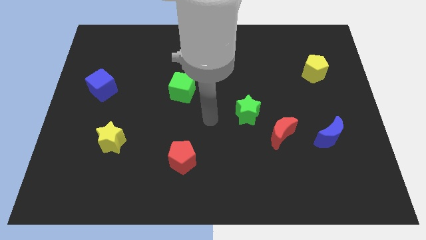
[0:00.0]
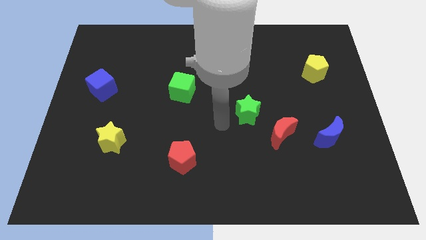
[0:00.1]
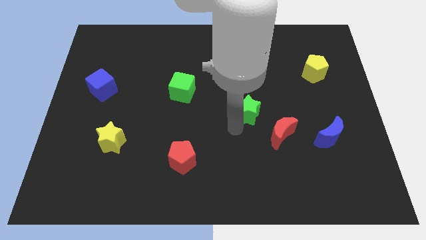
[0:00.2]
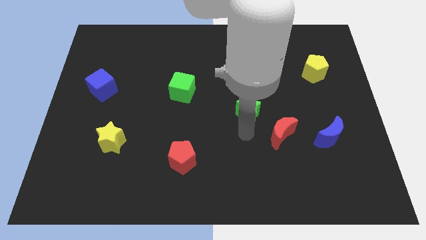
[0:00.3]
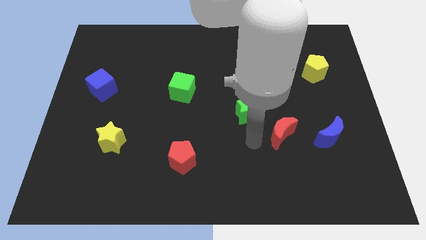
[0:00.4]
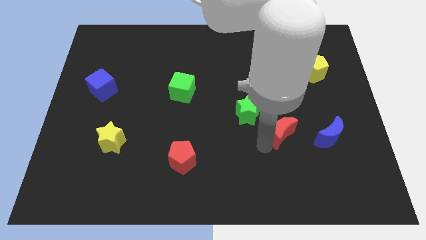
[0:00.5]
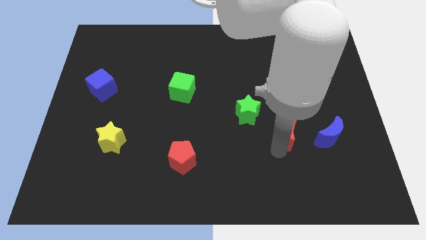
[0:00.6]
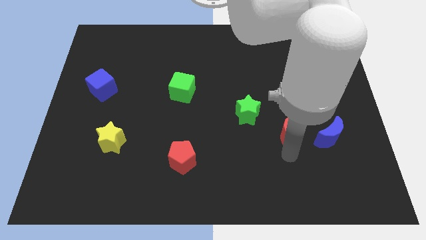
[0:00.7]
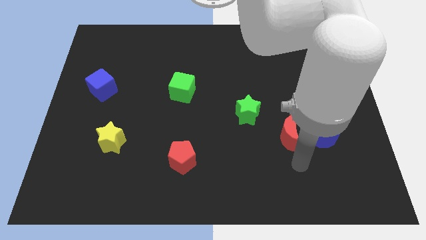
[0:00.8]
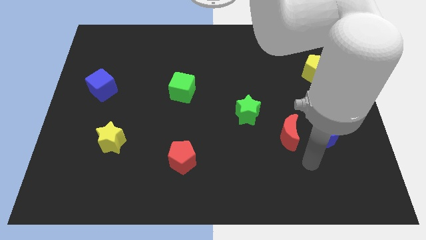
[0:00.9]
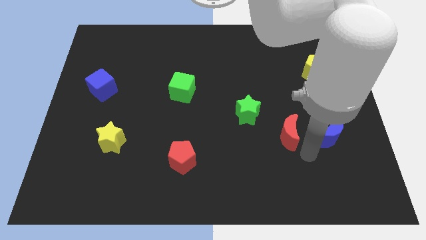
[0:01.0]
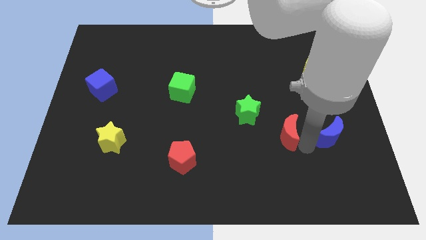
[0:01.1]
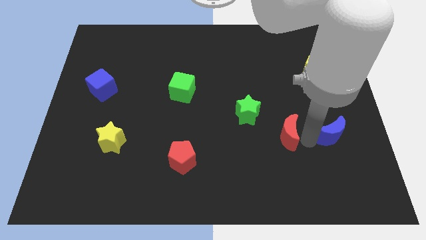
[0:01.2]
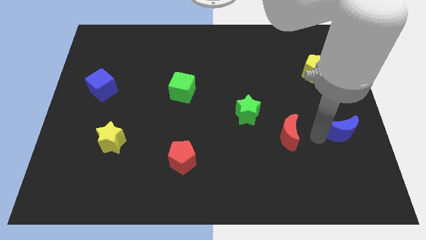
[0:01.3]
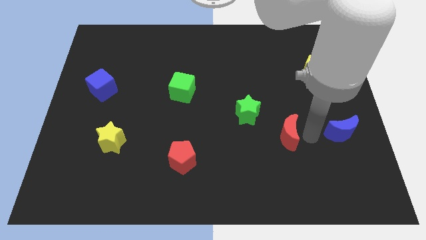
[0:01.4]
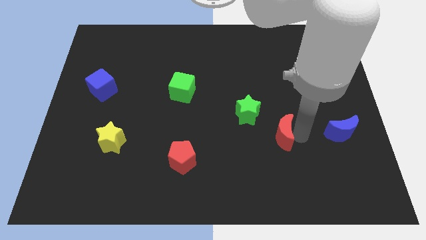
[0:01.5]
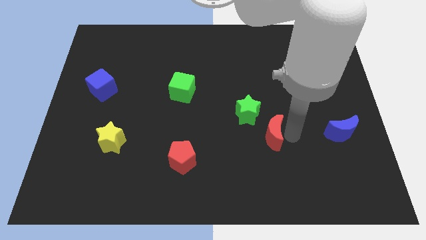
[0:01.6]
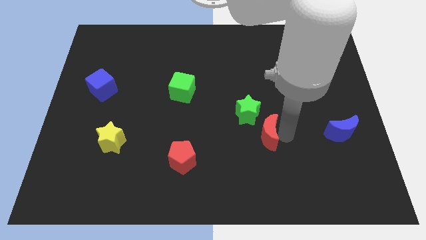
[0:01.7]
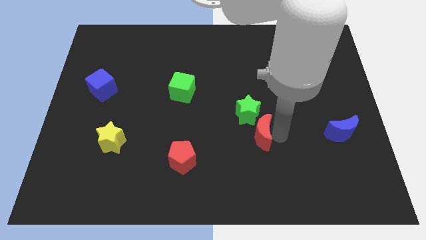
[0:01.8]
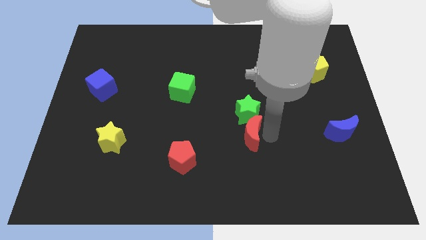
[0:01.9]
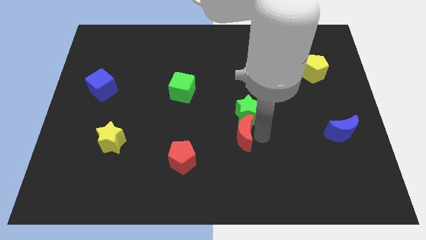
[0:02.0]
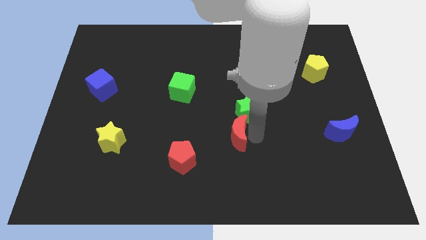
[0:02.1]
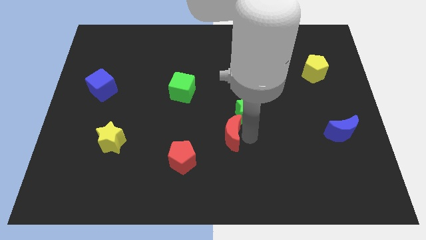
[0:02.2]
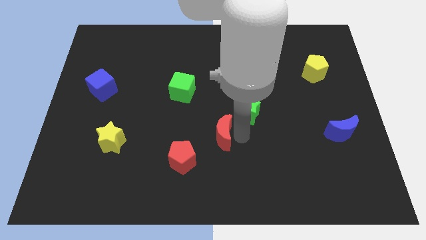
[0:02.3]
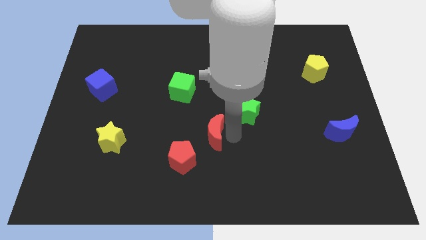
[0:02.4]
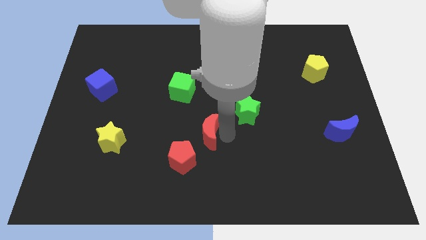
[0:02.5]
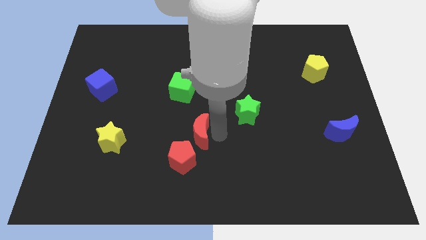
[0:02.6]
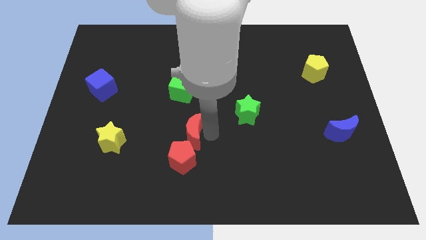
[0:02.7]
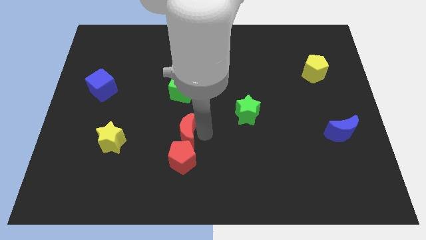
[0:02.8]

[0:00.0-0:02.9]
push the red moon to the left

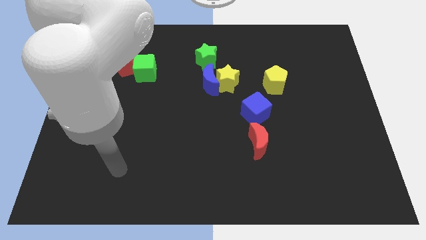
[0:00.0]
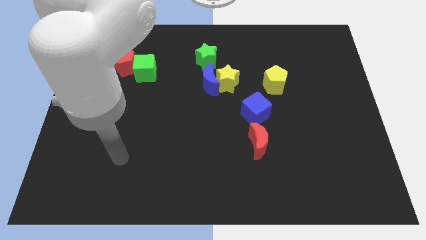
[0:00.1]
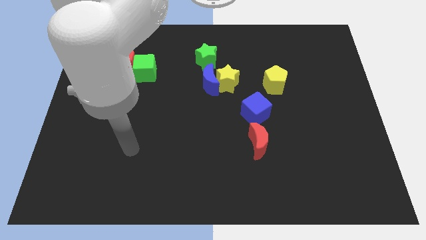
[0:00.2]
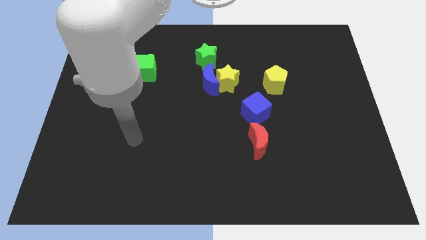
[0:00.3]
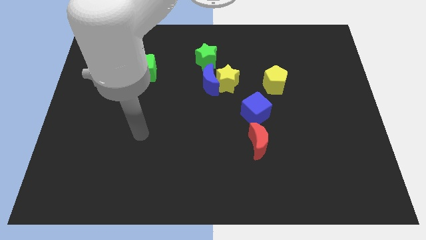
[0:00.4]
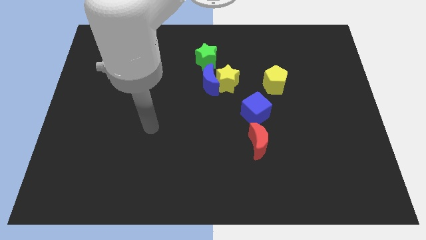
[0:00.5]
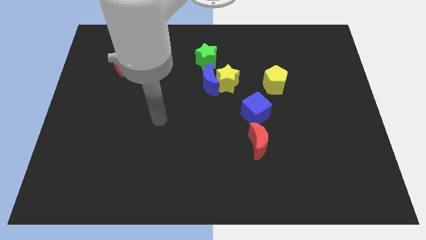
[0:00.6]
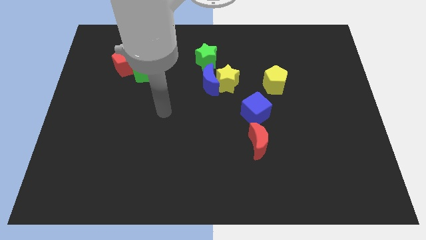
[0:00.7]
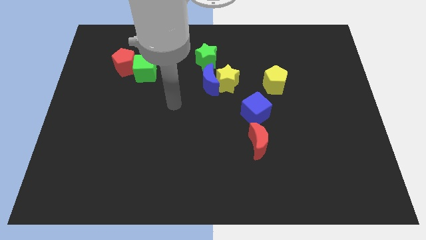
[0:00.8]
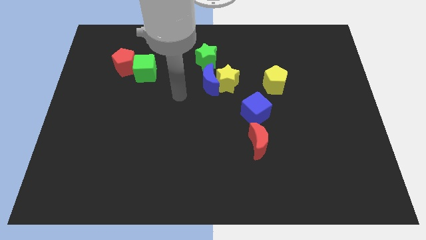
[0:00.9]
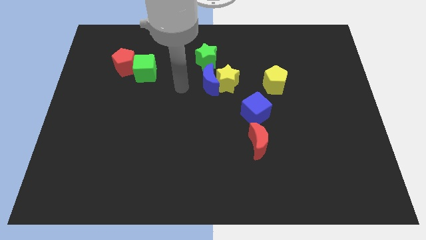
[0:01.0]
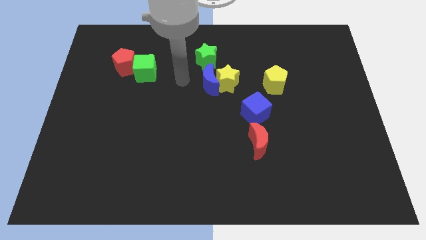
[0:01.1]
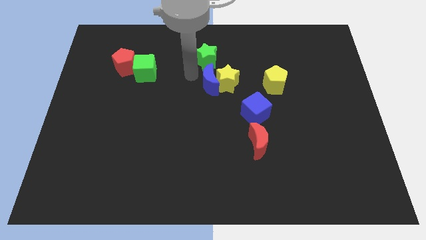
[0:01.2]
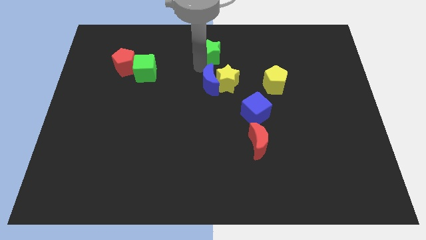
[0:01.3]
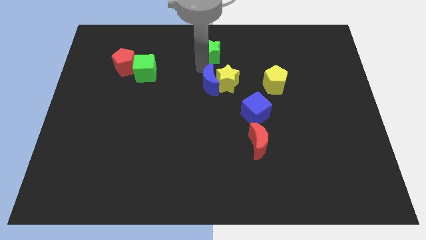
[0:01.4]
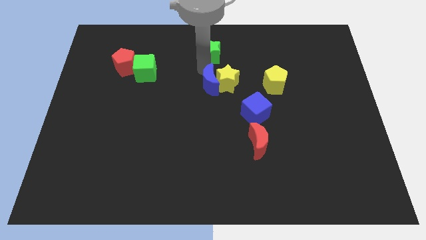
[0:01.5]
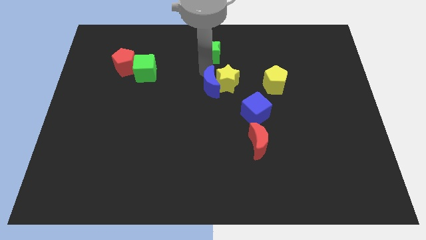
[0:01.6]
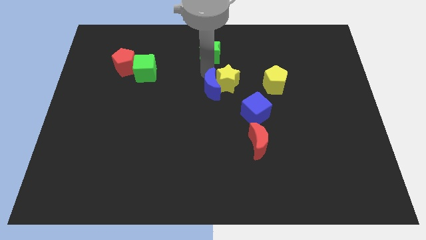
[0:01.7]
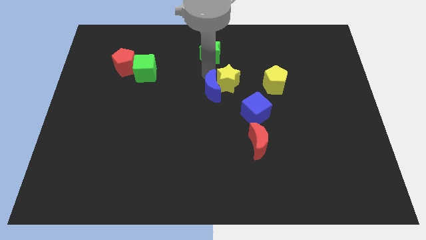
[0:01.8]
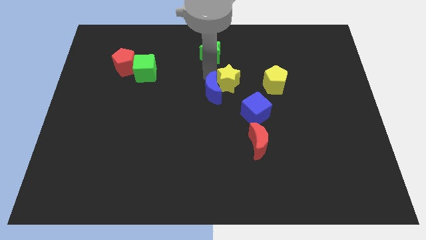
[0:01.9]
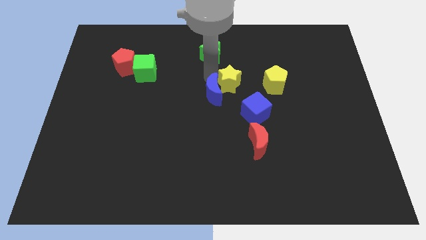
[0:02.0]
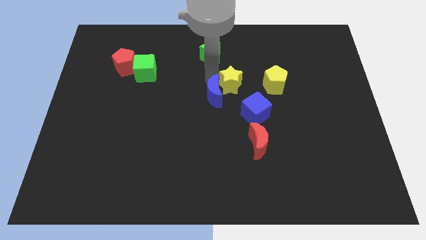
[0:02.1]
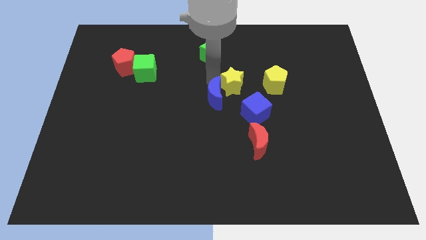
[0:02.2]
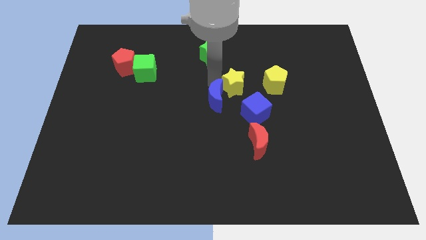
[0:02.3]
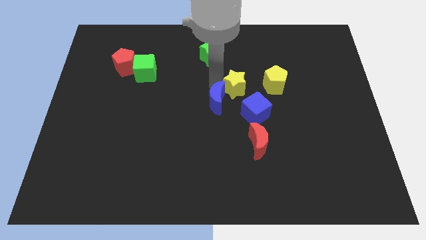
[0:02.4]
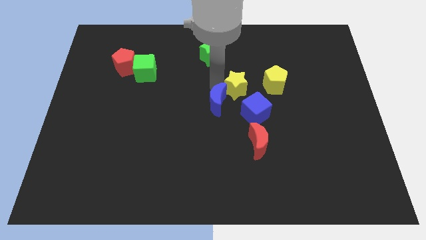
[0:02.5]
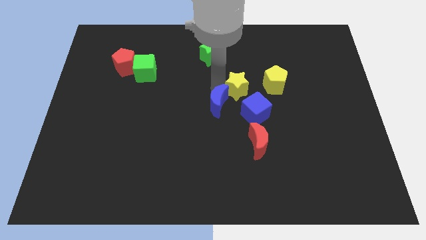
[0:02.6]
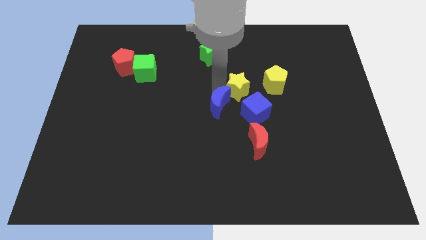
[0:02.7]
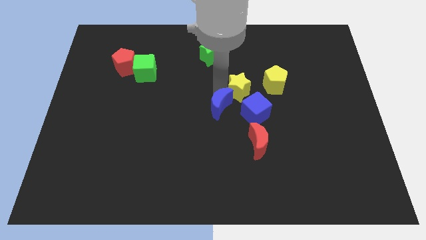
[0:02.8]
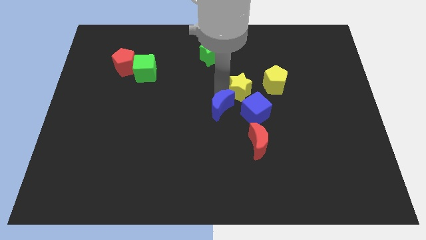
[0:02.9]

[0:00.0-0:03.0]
move the blue moon a little down and to the right diagonally

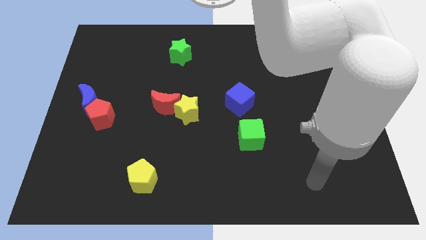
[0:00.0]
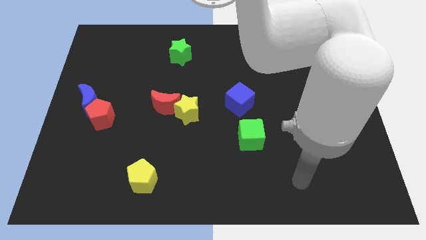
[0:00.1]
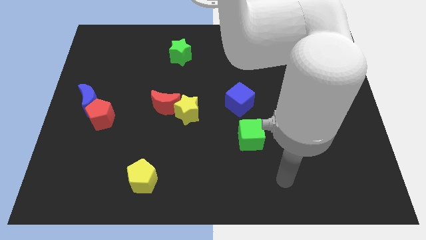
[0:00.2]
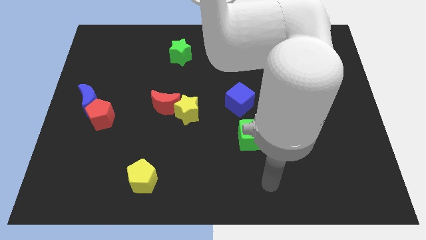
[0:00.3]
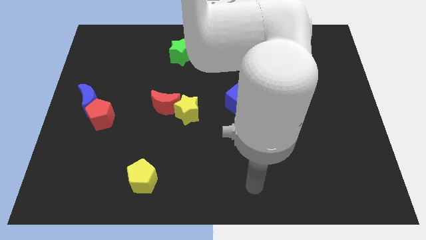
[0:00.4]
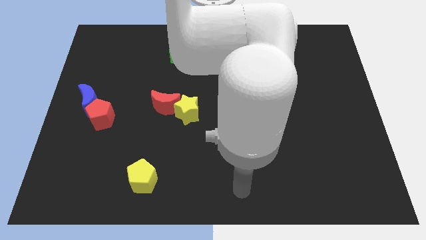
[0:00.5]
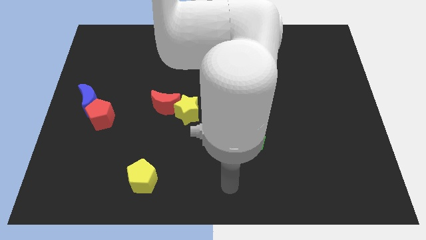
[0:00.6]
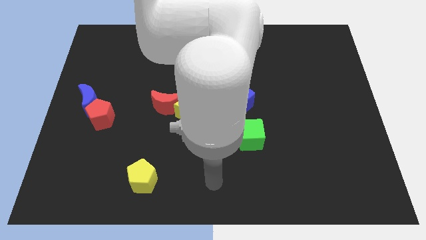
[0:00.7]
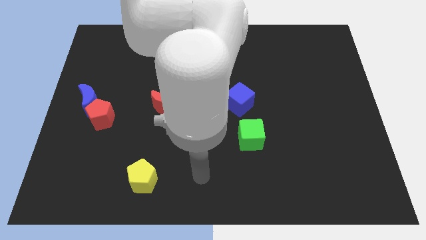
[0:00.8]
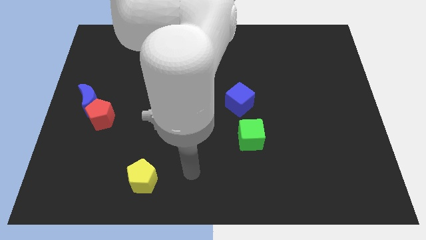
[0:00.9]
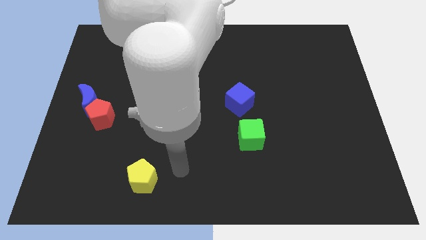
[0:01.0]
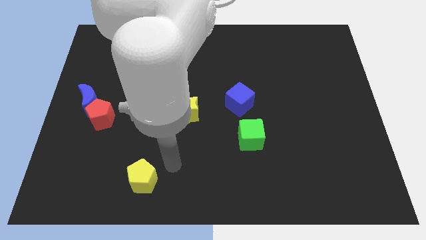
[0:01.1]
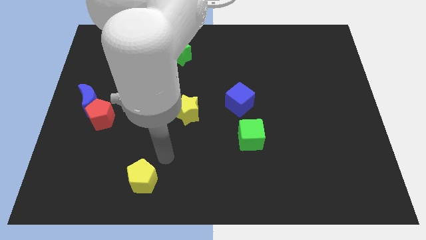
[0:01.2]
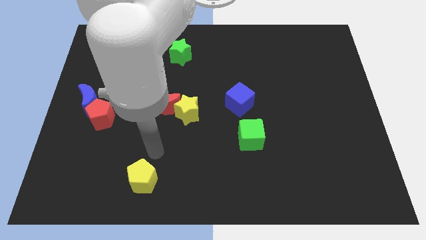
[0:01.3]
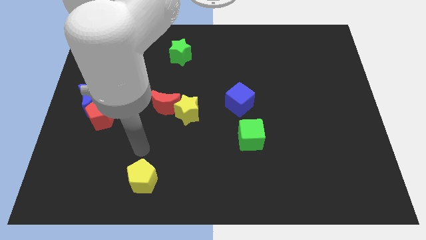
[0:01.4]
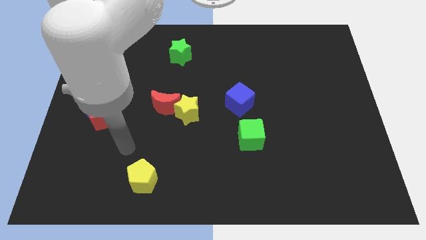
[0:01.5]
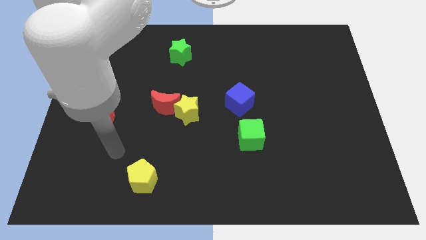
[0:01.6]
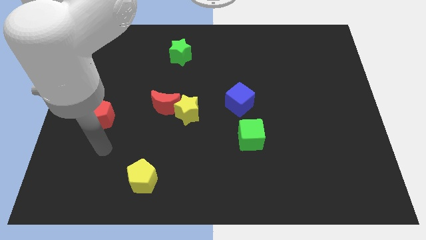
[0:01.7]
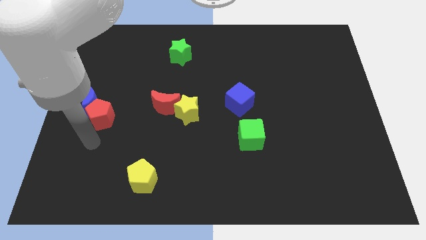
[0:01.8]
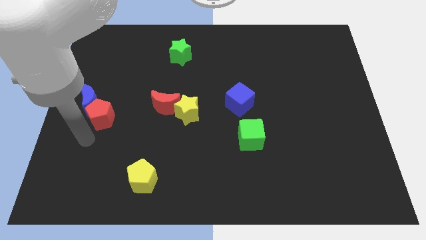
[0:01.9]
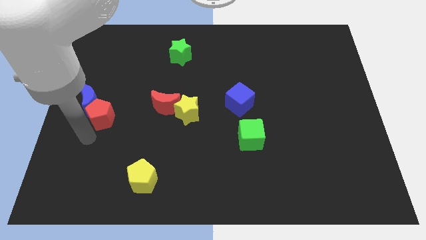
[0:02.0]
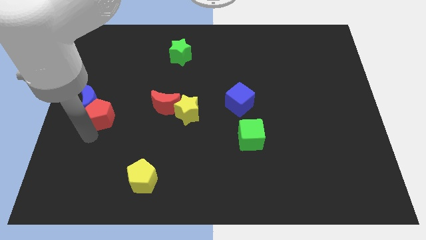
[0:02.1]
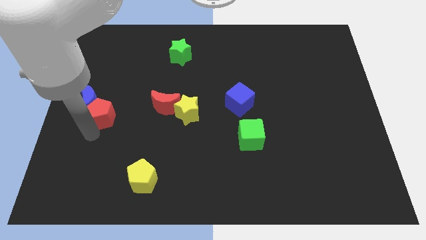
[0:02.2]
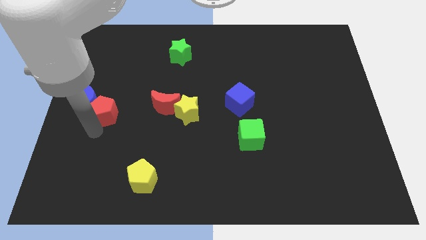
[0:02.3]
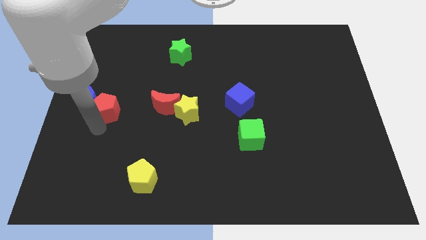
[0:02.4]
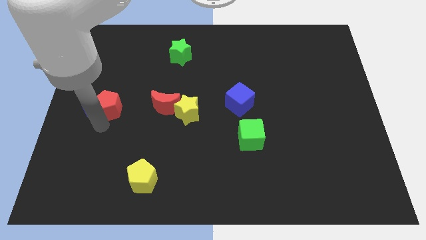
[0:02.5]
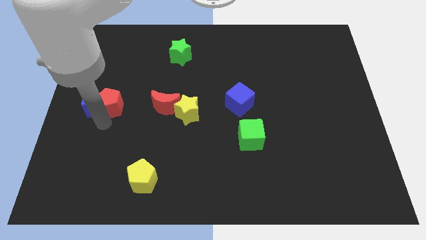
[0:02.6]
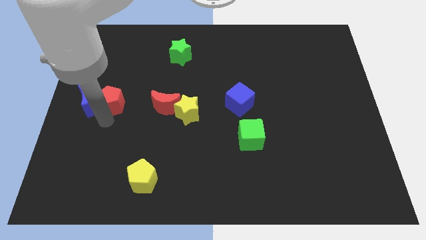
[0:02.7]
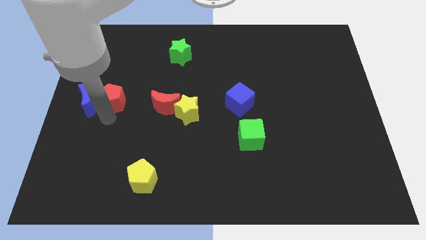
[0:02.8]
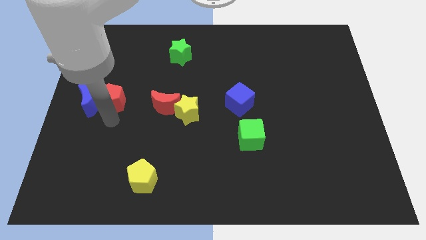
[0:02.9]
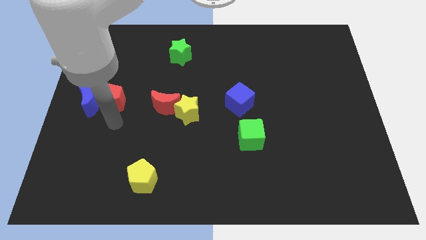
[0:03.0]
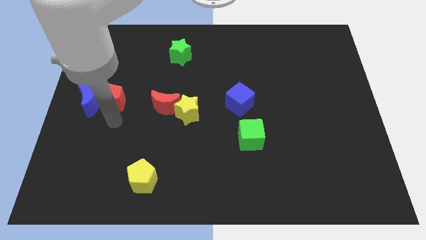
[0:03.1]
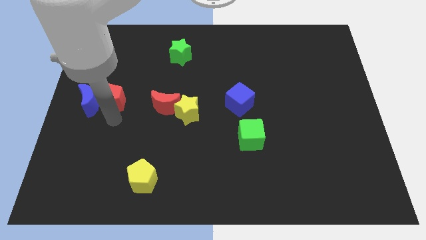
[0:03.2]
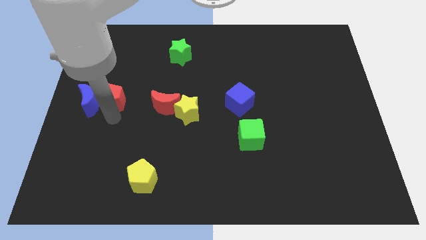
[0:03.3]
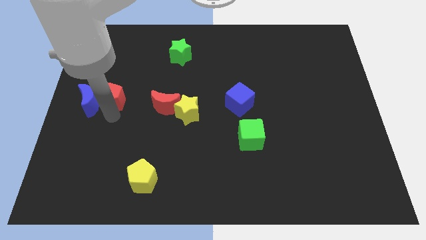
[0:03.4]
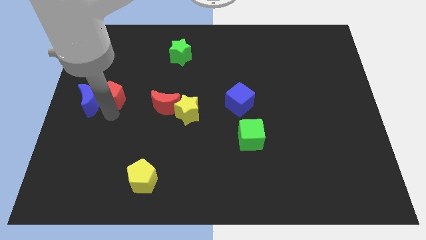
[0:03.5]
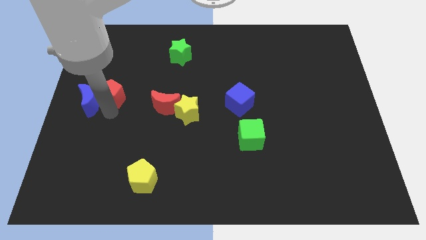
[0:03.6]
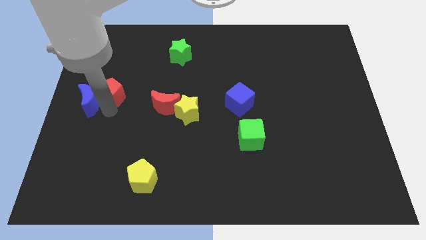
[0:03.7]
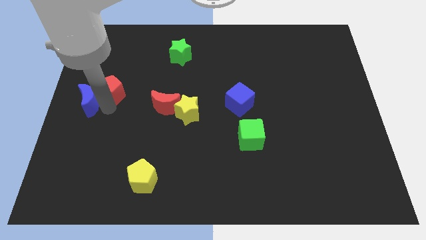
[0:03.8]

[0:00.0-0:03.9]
slide the red pentagon a little upwards
